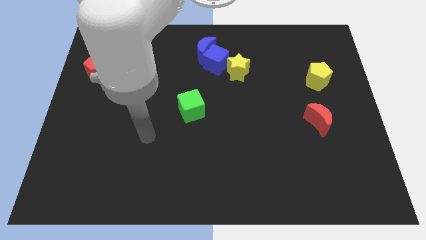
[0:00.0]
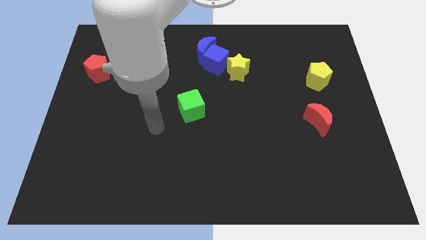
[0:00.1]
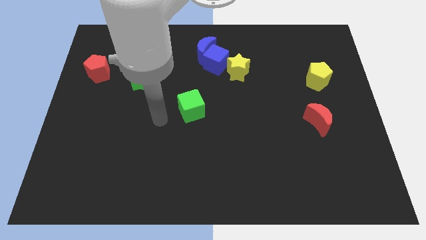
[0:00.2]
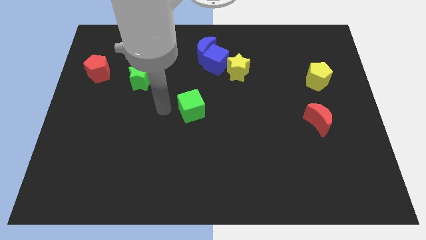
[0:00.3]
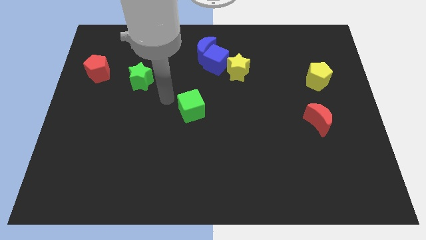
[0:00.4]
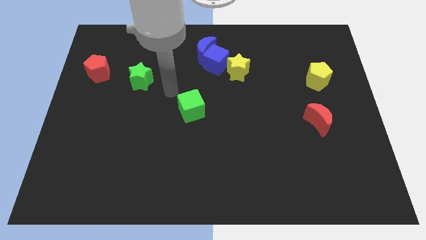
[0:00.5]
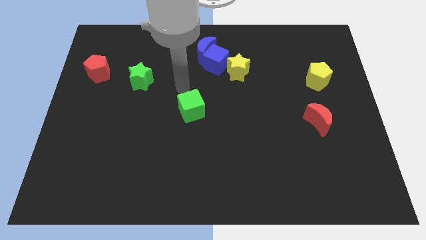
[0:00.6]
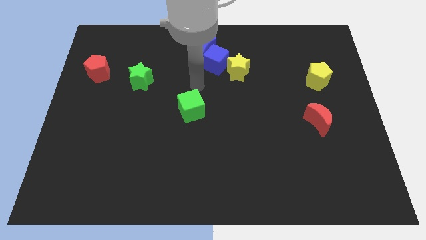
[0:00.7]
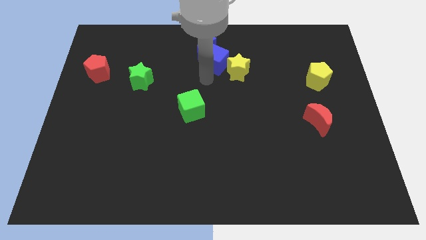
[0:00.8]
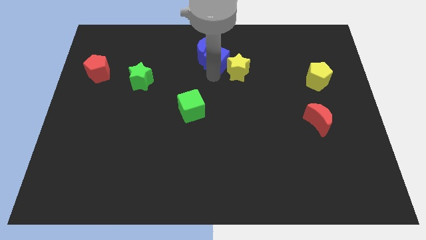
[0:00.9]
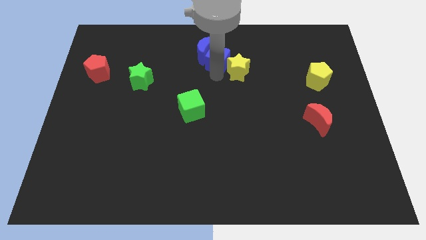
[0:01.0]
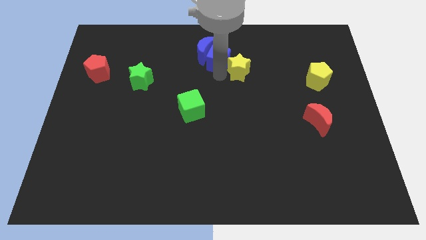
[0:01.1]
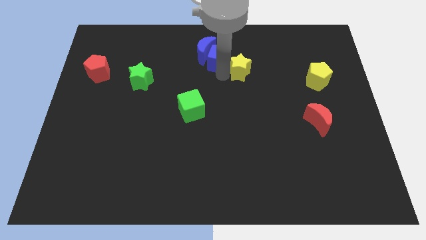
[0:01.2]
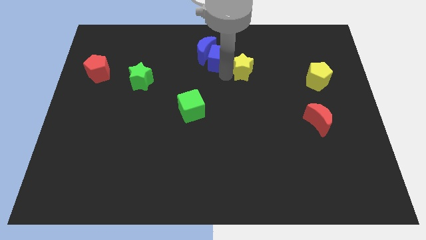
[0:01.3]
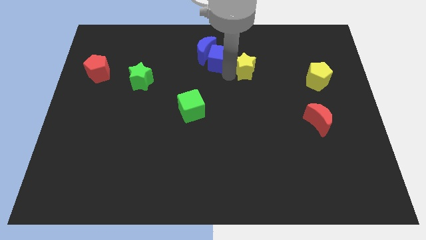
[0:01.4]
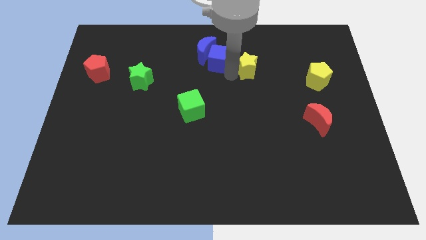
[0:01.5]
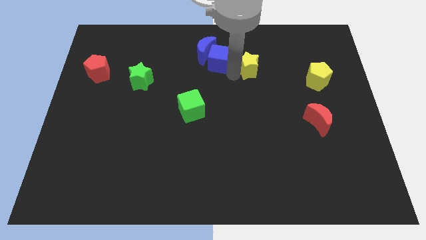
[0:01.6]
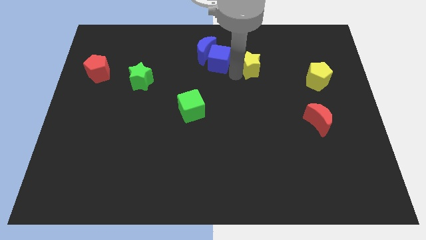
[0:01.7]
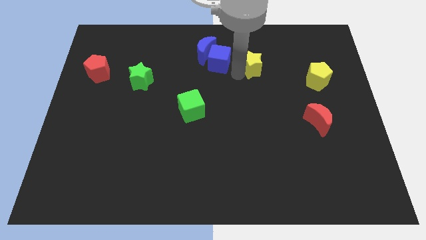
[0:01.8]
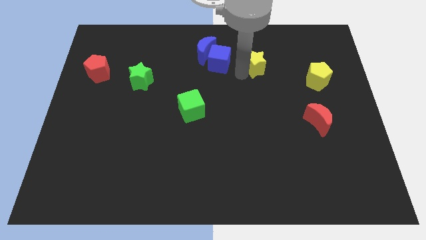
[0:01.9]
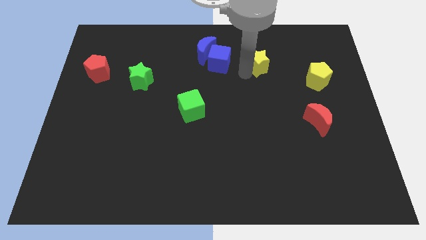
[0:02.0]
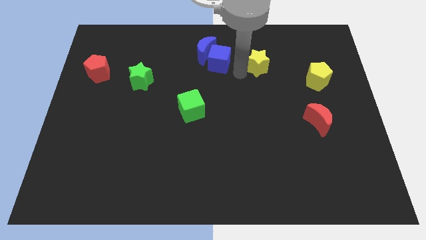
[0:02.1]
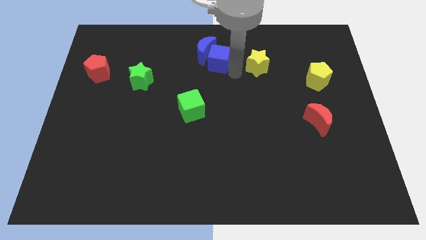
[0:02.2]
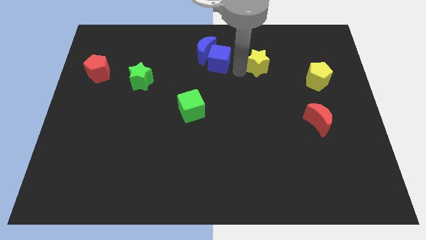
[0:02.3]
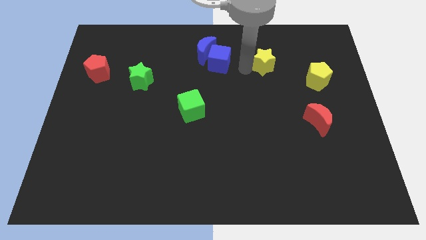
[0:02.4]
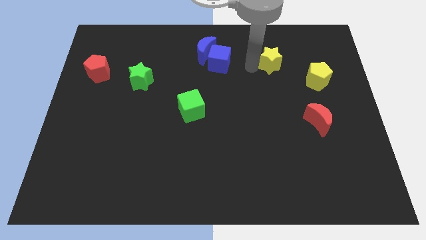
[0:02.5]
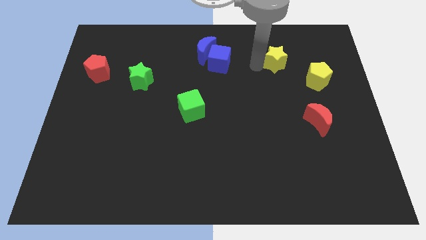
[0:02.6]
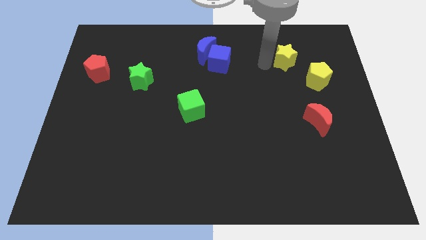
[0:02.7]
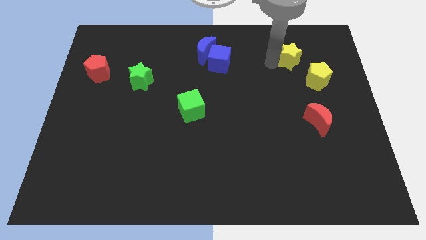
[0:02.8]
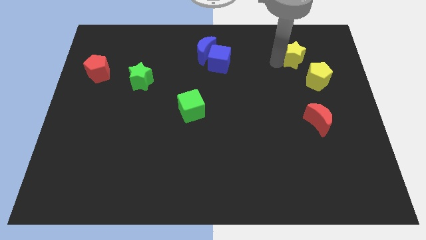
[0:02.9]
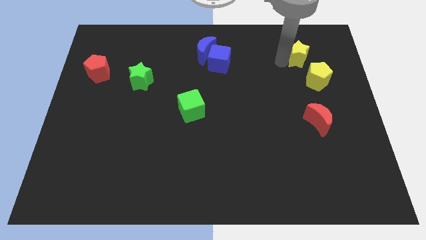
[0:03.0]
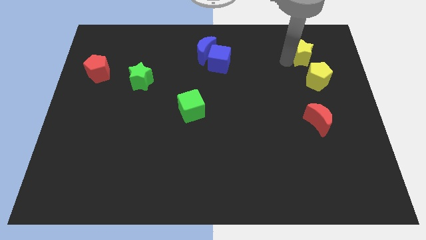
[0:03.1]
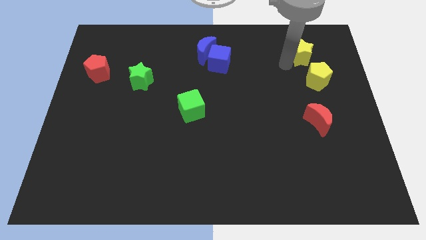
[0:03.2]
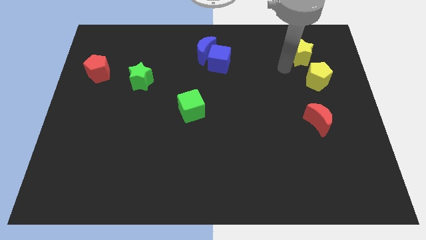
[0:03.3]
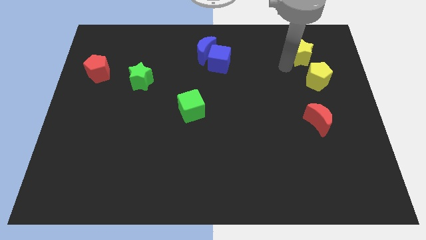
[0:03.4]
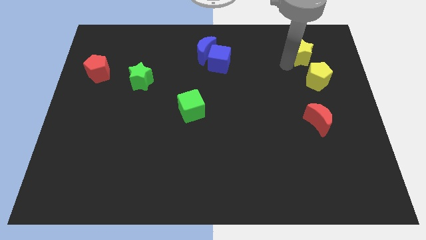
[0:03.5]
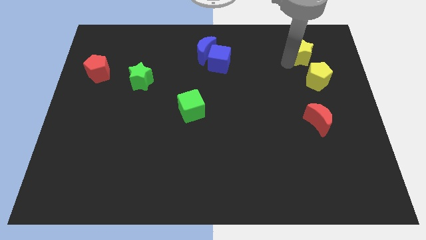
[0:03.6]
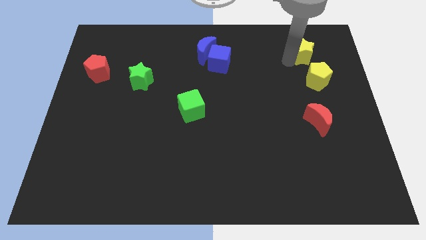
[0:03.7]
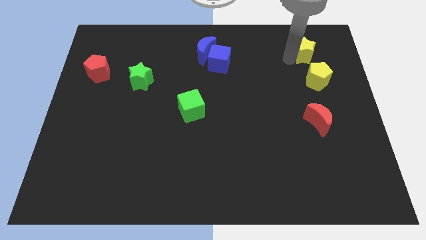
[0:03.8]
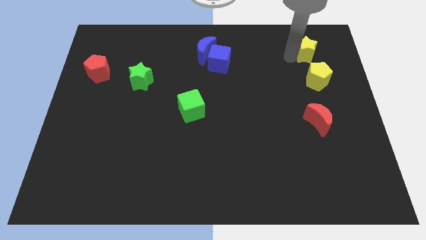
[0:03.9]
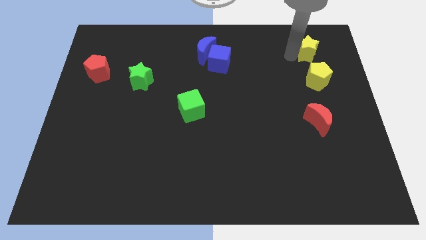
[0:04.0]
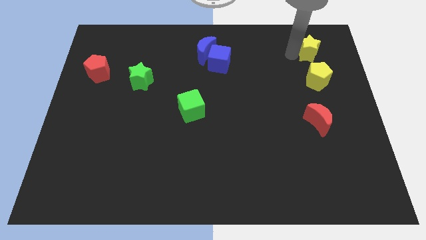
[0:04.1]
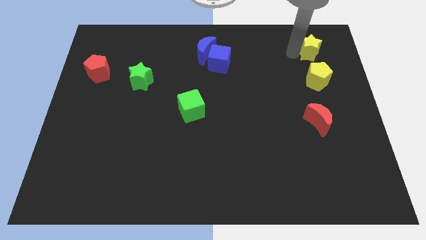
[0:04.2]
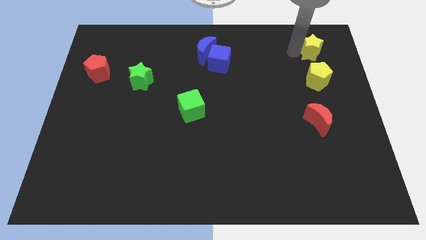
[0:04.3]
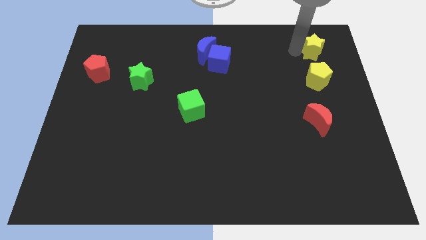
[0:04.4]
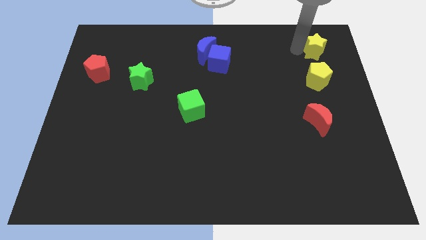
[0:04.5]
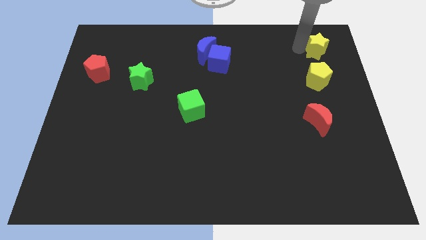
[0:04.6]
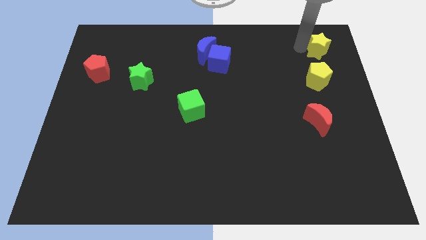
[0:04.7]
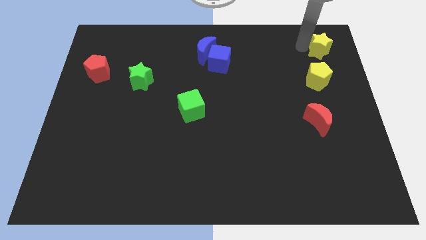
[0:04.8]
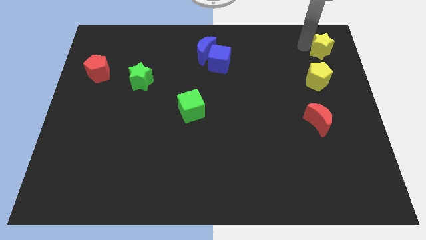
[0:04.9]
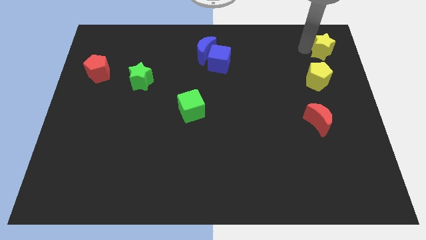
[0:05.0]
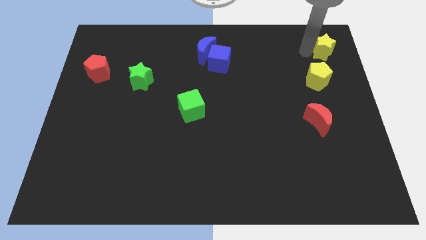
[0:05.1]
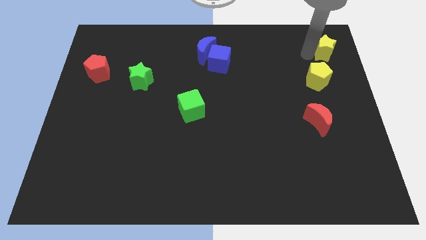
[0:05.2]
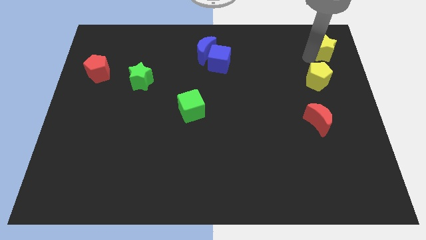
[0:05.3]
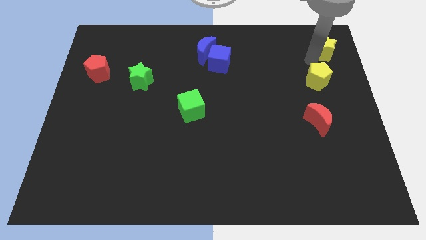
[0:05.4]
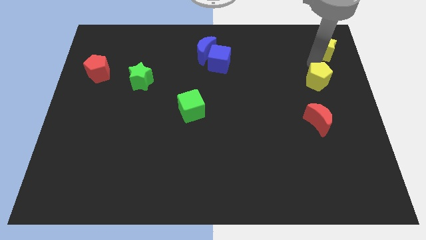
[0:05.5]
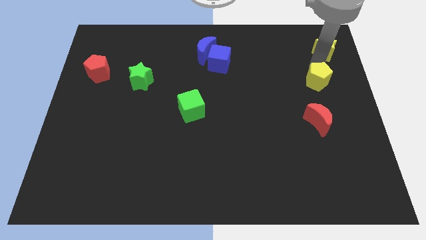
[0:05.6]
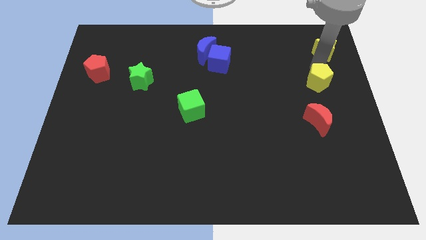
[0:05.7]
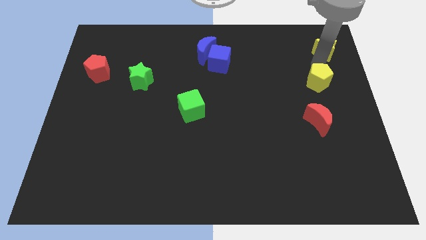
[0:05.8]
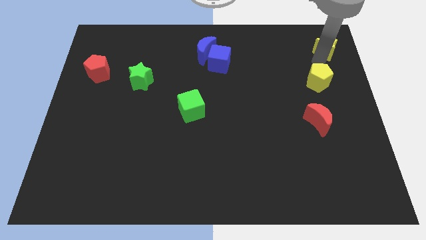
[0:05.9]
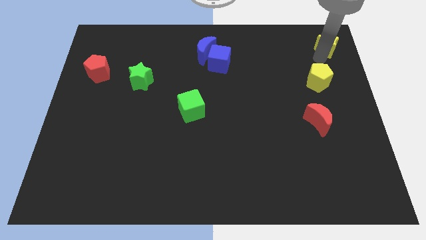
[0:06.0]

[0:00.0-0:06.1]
move the yellow star to the top right corner
